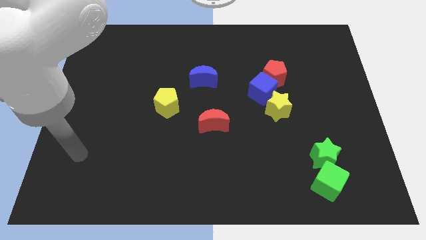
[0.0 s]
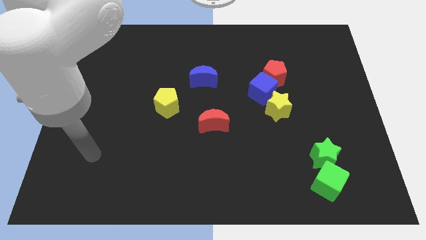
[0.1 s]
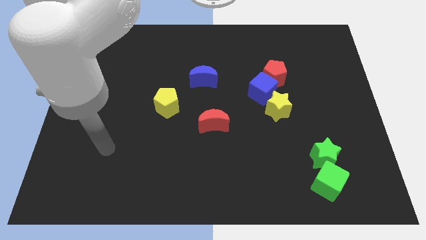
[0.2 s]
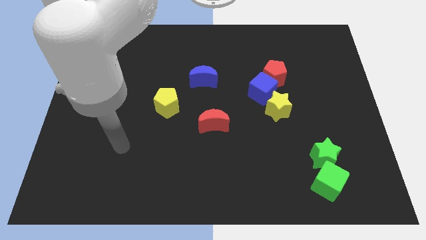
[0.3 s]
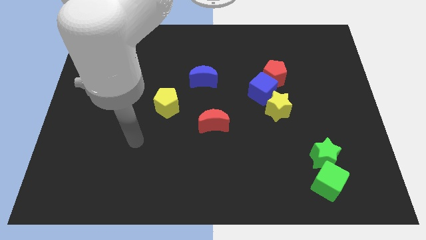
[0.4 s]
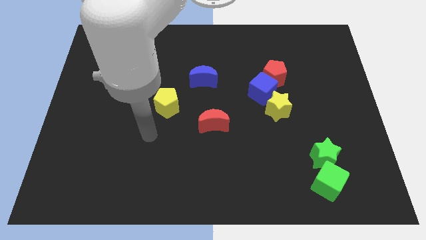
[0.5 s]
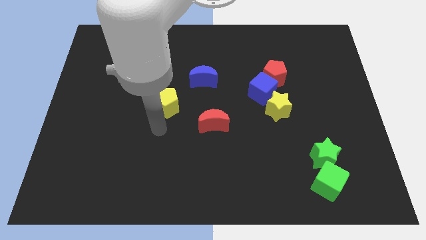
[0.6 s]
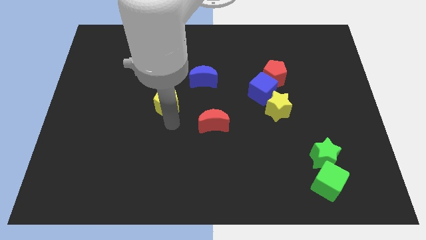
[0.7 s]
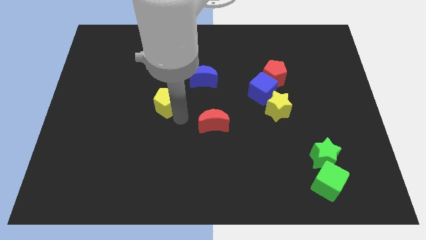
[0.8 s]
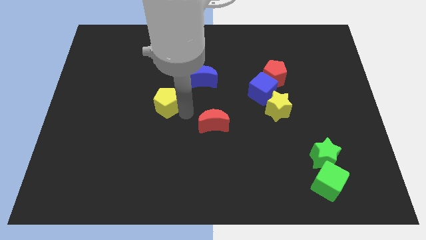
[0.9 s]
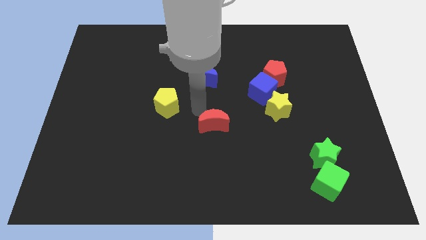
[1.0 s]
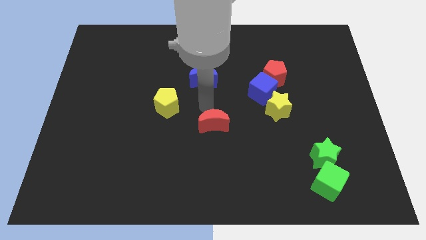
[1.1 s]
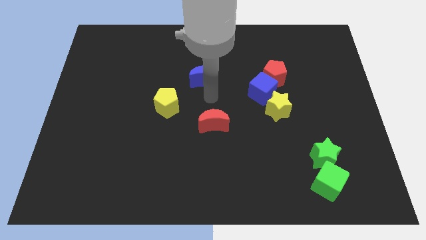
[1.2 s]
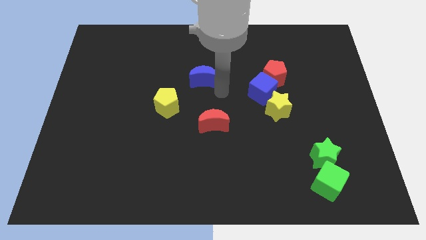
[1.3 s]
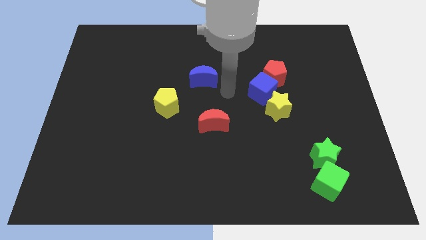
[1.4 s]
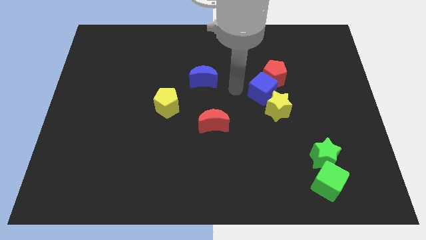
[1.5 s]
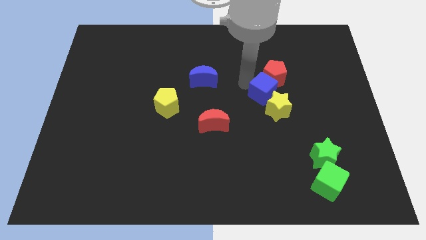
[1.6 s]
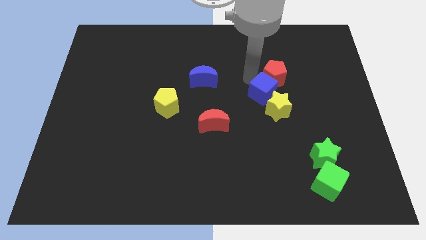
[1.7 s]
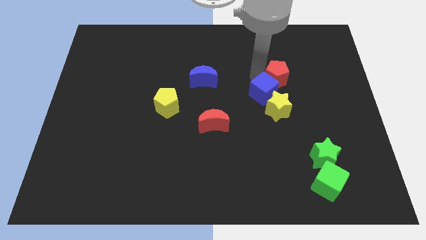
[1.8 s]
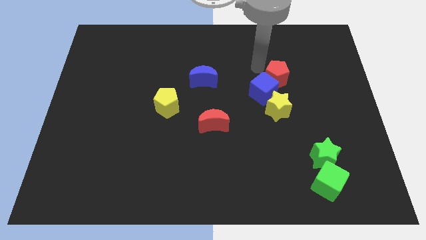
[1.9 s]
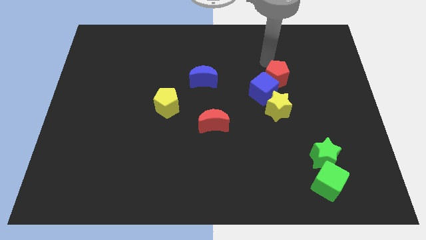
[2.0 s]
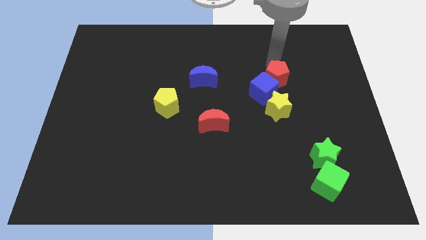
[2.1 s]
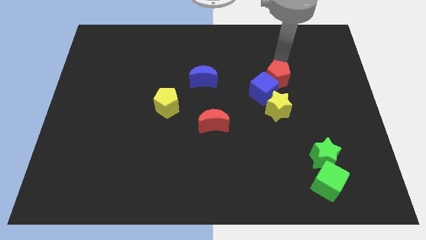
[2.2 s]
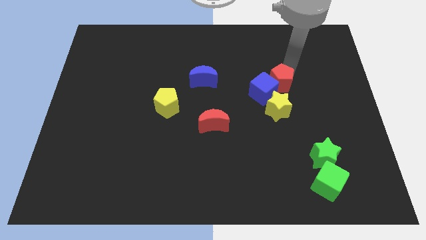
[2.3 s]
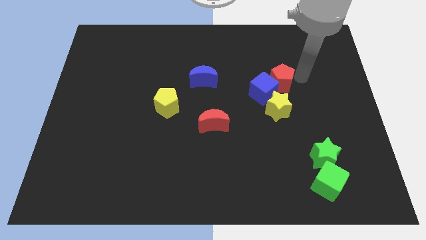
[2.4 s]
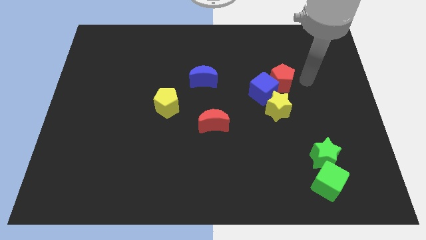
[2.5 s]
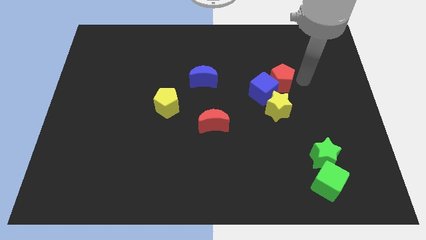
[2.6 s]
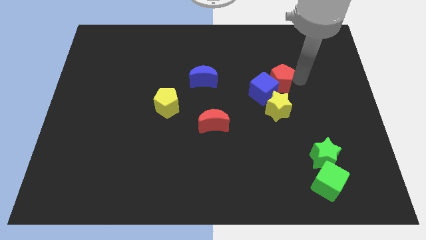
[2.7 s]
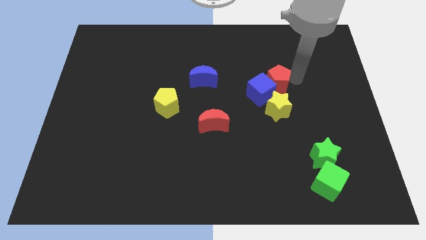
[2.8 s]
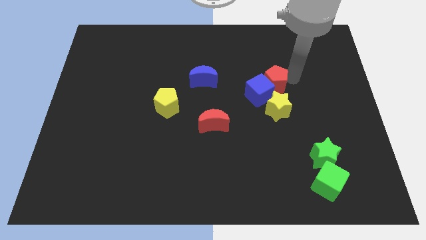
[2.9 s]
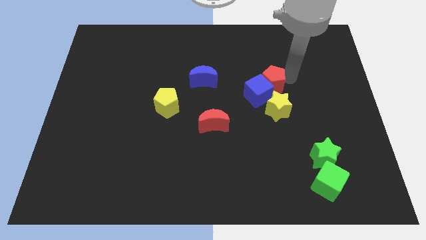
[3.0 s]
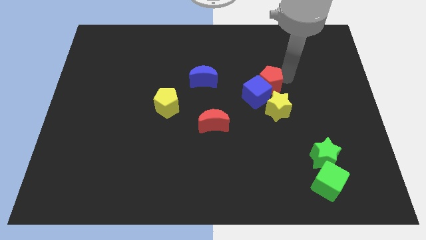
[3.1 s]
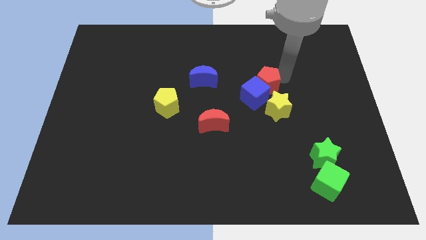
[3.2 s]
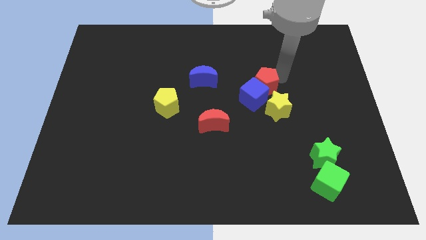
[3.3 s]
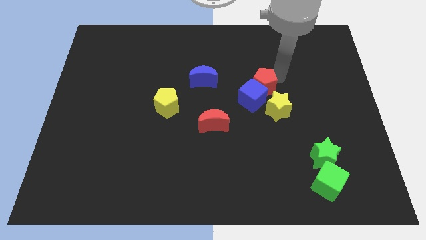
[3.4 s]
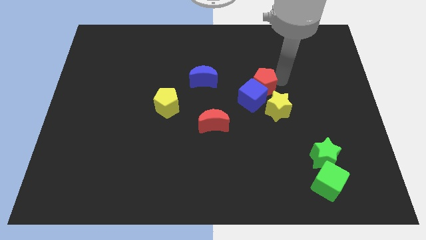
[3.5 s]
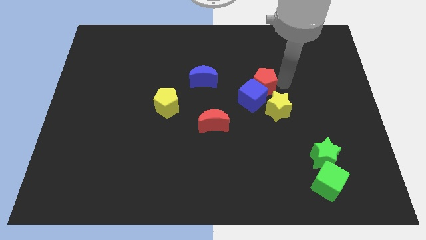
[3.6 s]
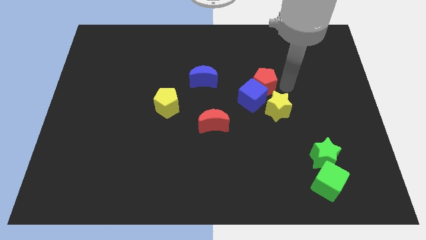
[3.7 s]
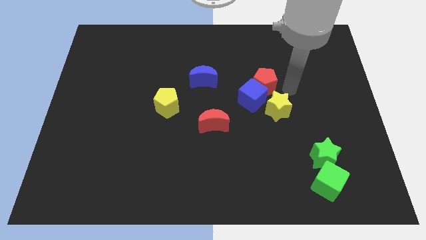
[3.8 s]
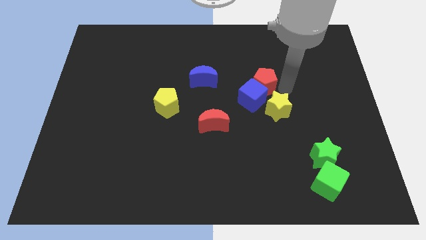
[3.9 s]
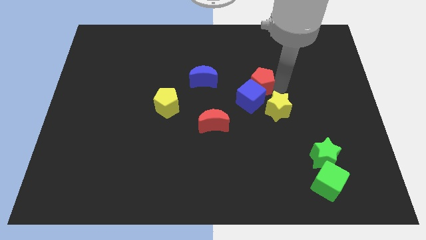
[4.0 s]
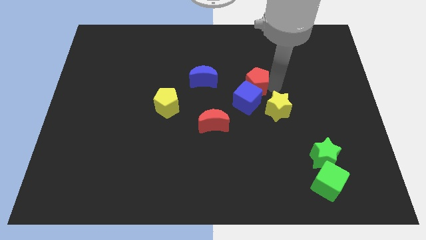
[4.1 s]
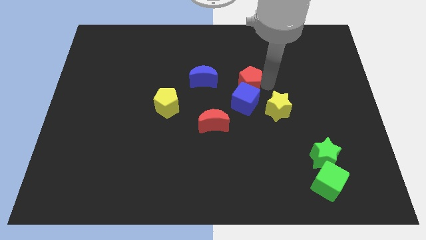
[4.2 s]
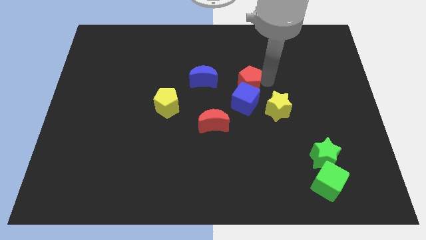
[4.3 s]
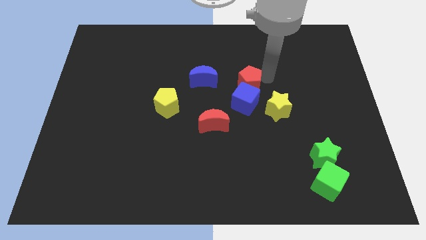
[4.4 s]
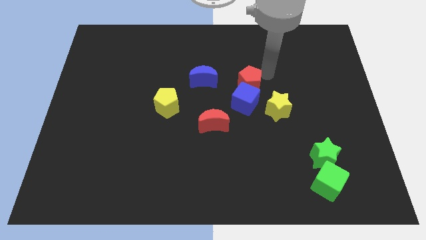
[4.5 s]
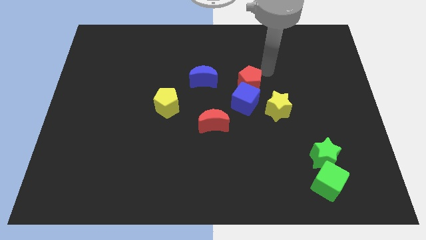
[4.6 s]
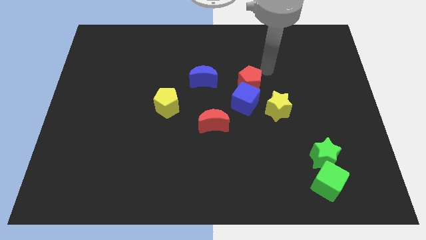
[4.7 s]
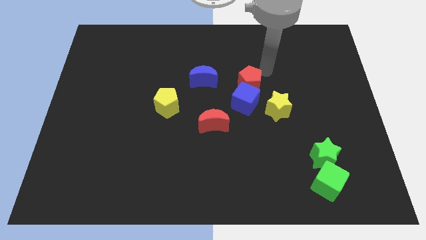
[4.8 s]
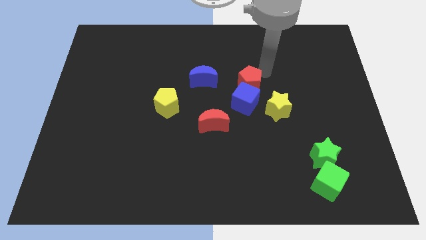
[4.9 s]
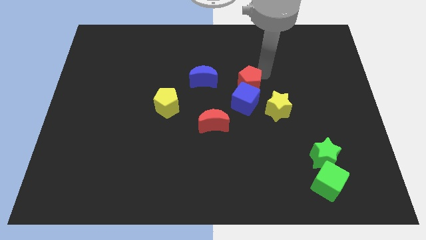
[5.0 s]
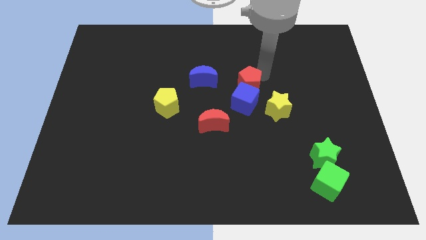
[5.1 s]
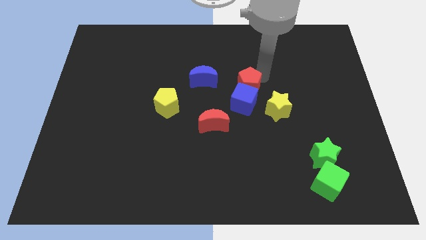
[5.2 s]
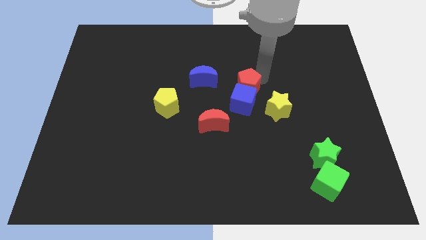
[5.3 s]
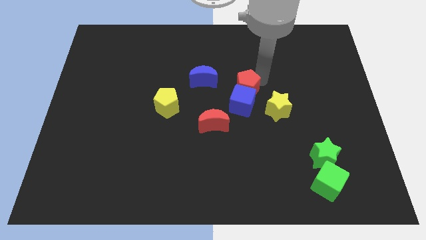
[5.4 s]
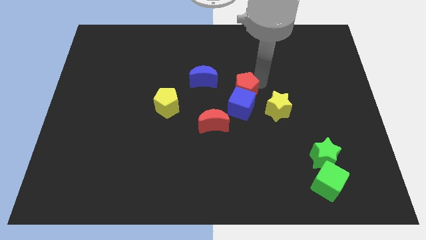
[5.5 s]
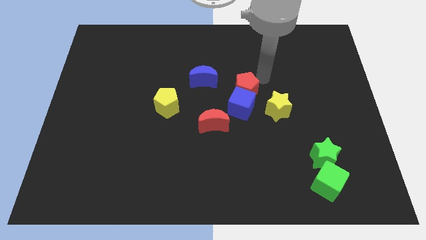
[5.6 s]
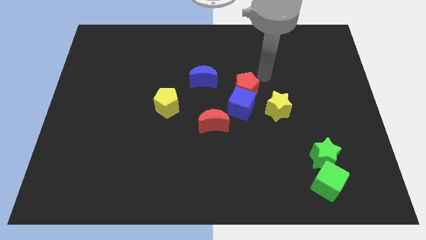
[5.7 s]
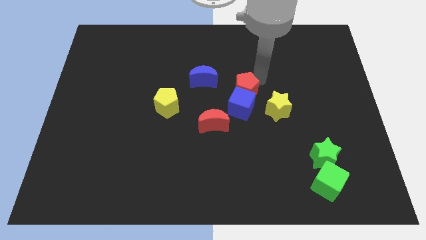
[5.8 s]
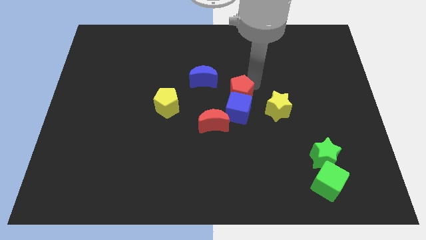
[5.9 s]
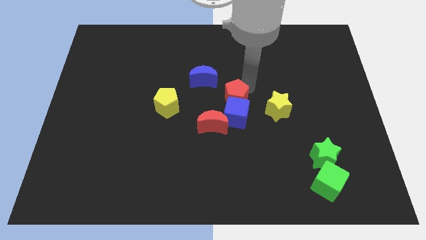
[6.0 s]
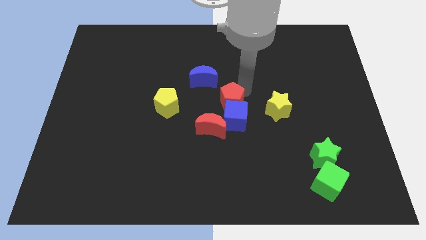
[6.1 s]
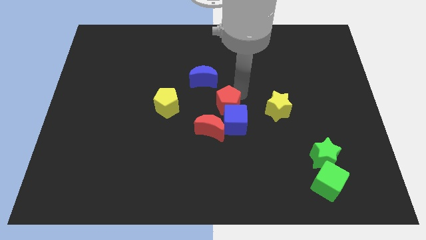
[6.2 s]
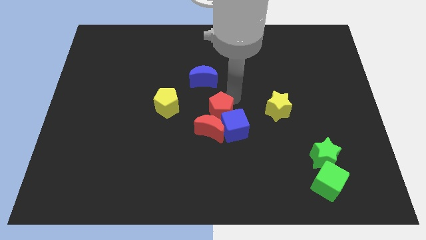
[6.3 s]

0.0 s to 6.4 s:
push the red pentagon to the red moon

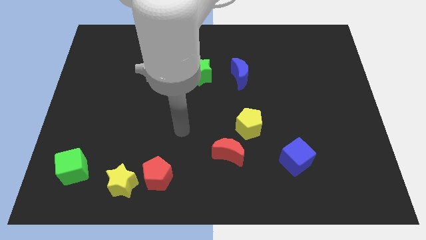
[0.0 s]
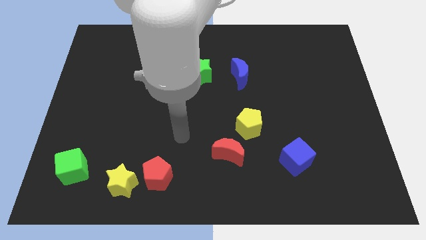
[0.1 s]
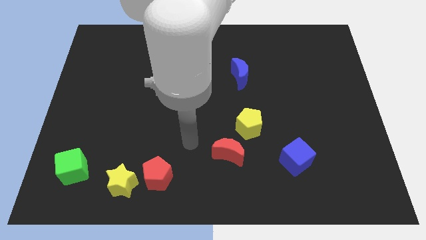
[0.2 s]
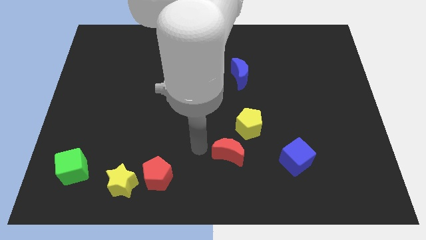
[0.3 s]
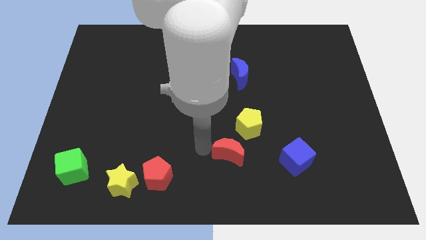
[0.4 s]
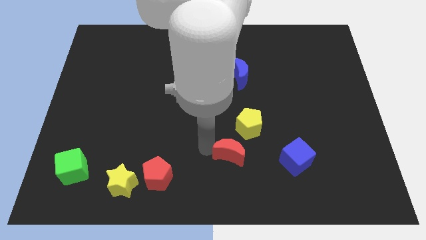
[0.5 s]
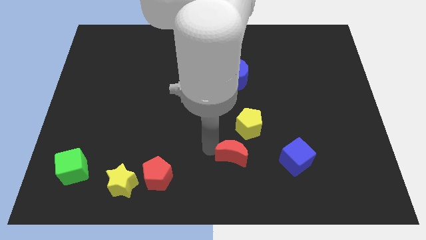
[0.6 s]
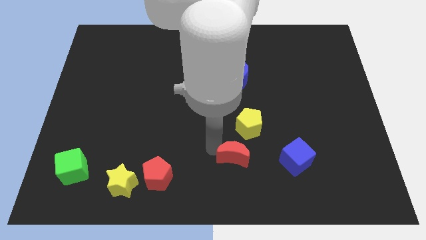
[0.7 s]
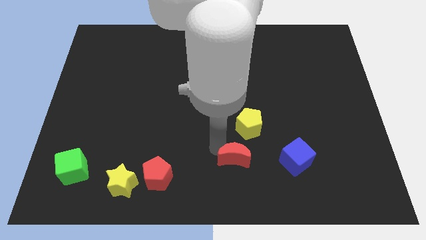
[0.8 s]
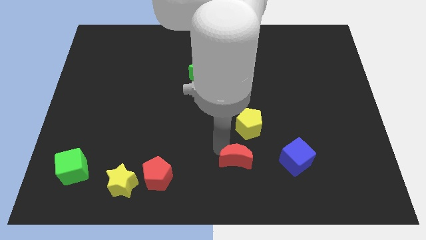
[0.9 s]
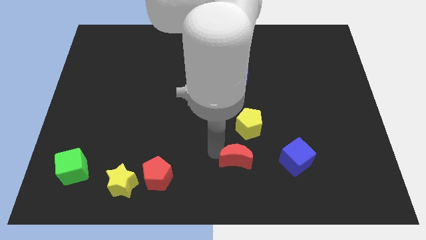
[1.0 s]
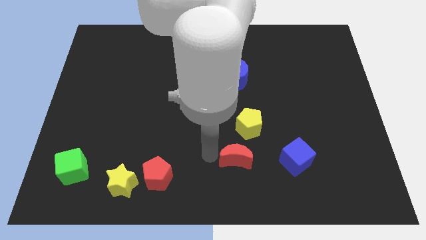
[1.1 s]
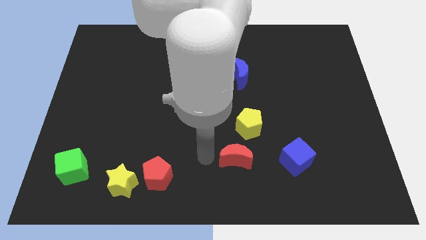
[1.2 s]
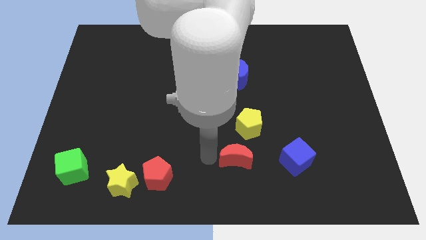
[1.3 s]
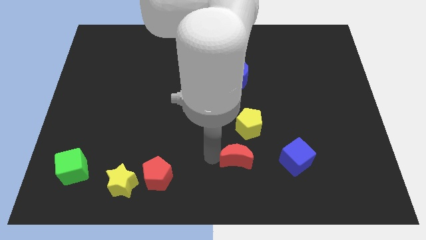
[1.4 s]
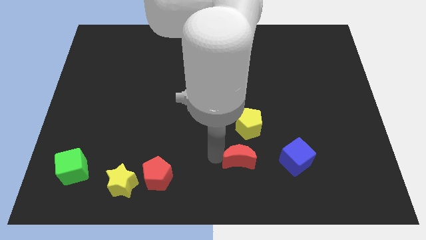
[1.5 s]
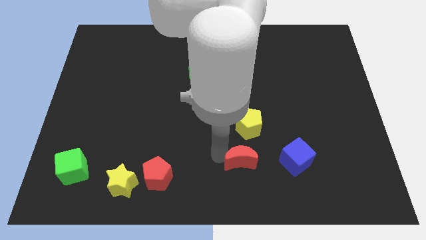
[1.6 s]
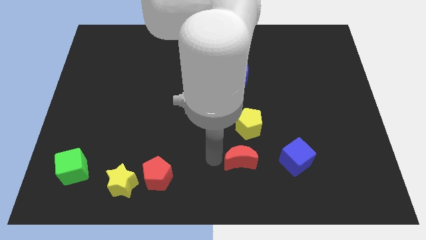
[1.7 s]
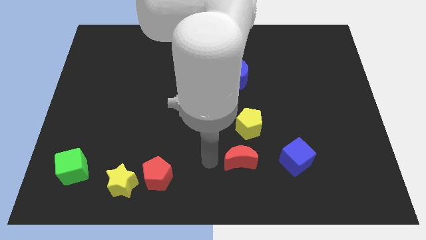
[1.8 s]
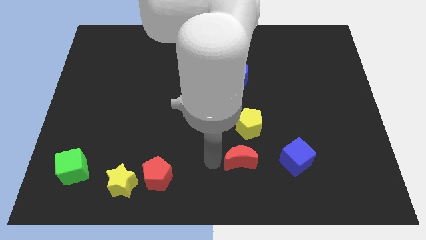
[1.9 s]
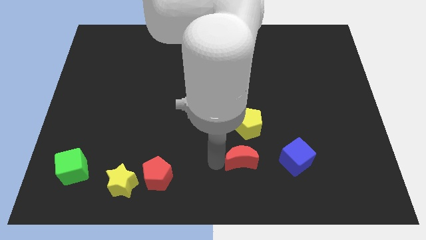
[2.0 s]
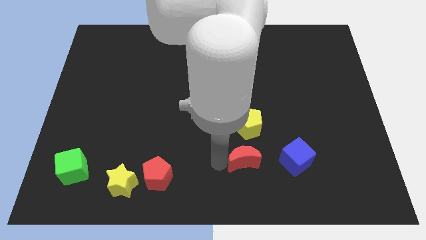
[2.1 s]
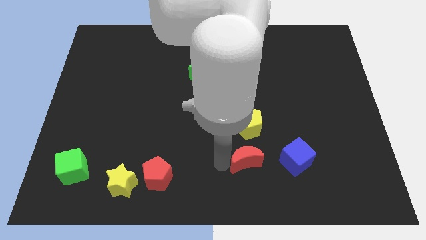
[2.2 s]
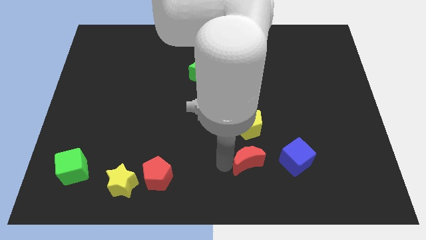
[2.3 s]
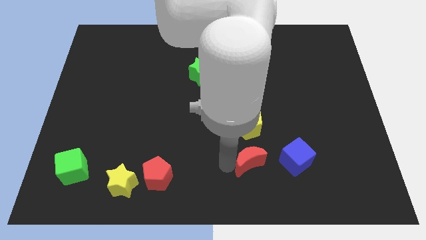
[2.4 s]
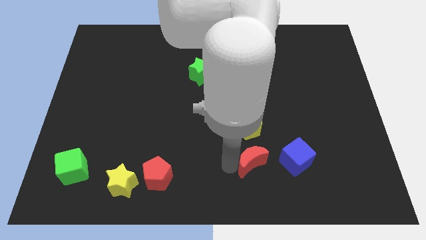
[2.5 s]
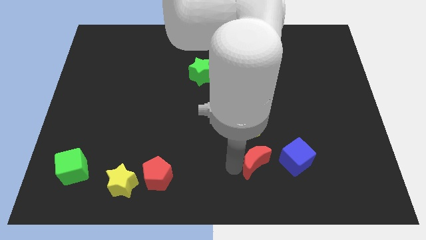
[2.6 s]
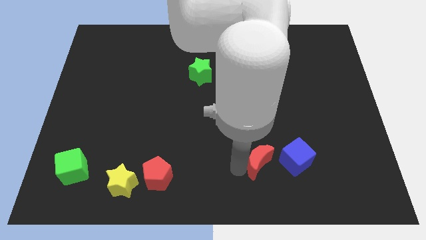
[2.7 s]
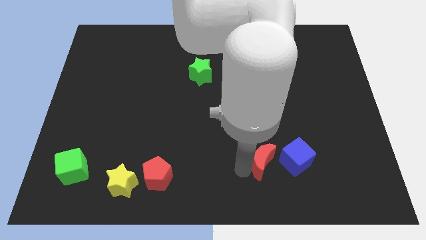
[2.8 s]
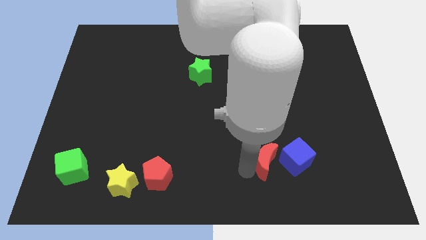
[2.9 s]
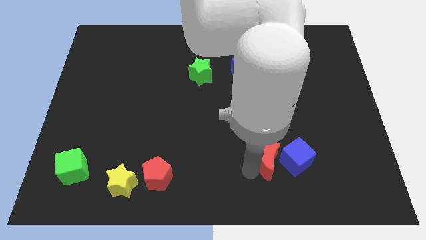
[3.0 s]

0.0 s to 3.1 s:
move the red moon to the blue cube
